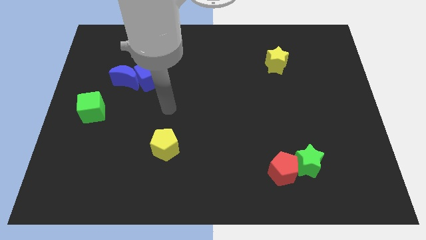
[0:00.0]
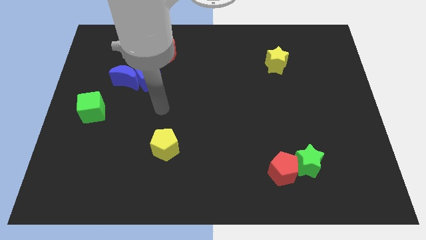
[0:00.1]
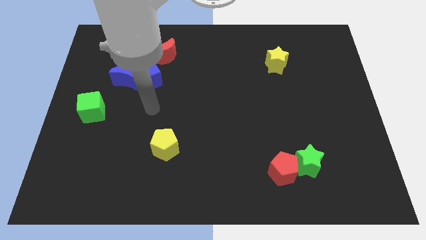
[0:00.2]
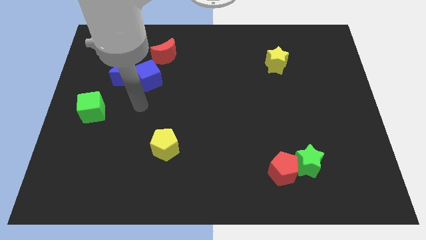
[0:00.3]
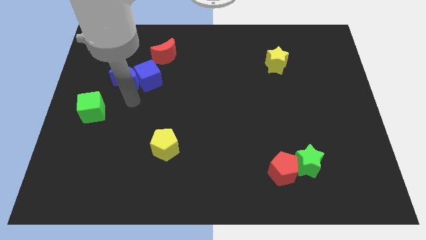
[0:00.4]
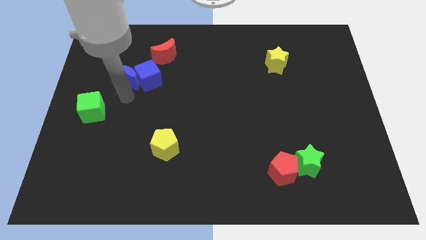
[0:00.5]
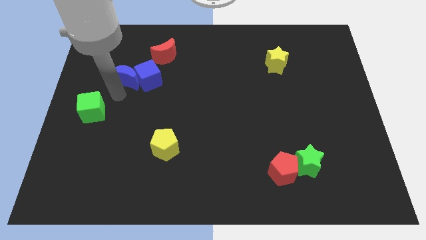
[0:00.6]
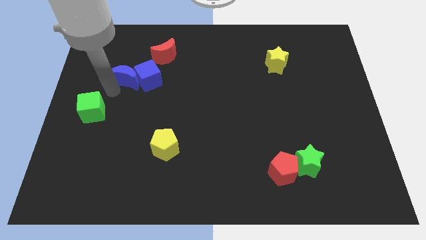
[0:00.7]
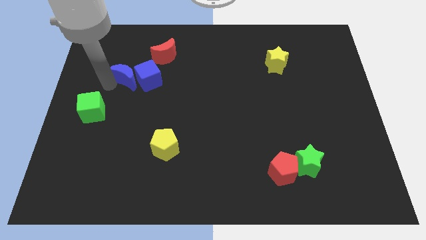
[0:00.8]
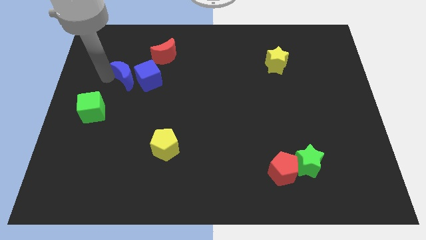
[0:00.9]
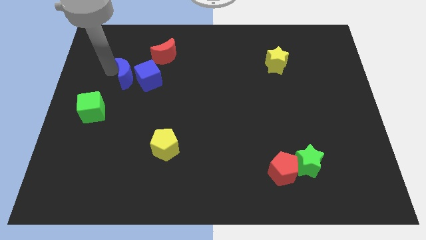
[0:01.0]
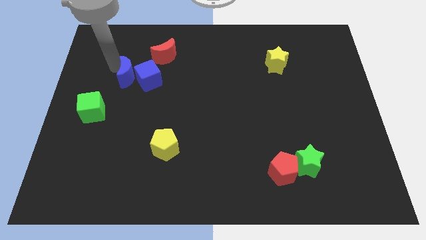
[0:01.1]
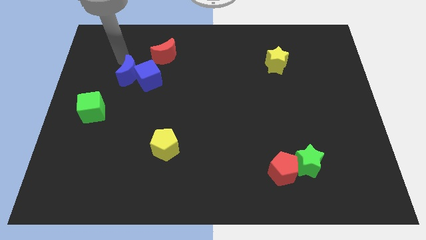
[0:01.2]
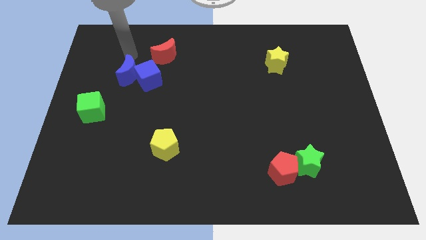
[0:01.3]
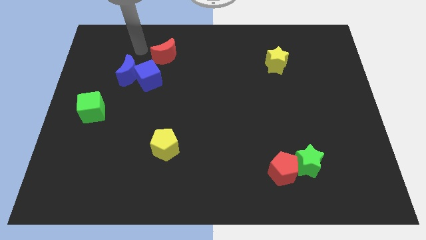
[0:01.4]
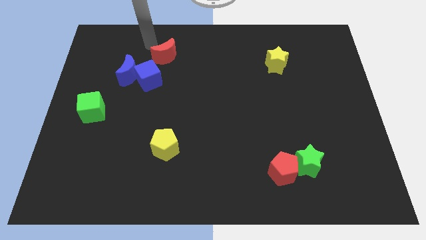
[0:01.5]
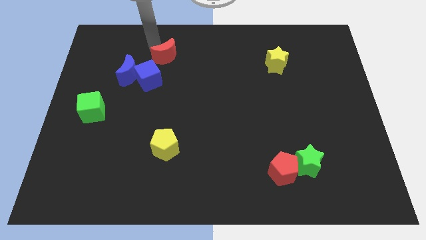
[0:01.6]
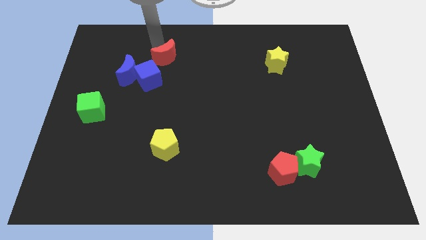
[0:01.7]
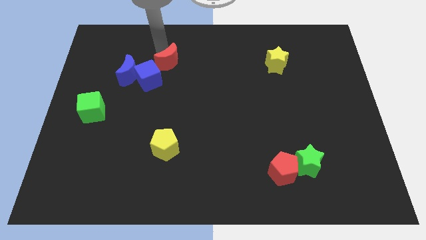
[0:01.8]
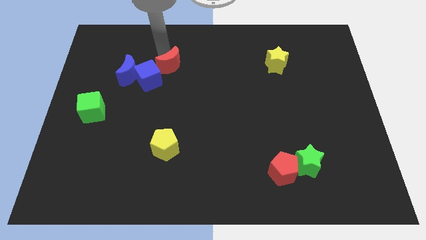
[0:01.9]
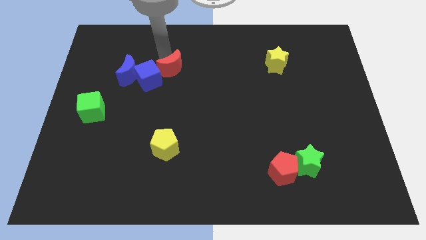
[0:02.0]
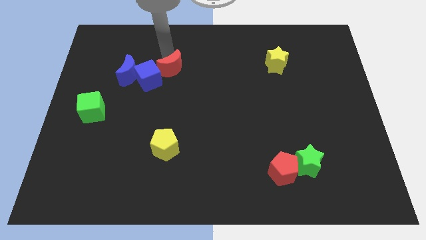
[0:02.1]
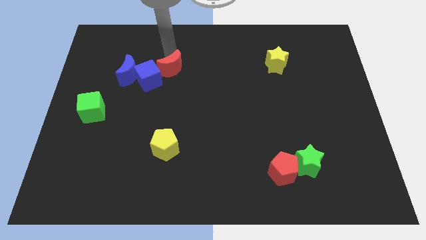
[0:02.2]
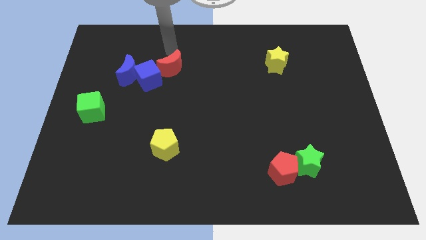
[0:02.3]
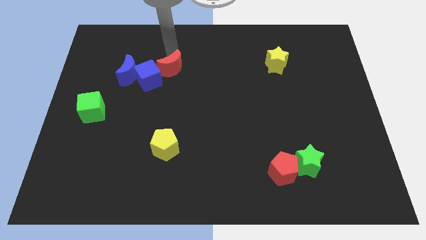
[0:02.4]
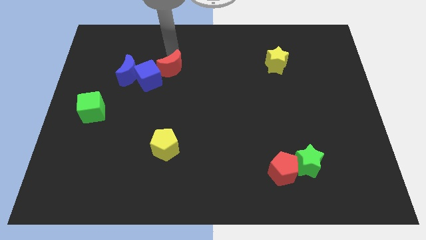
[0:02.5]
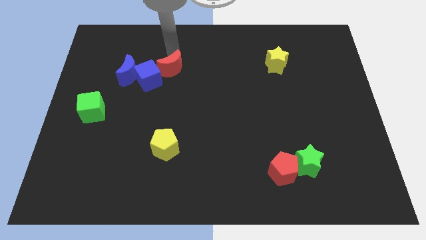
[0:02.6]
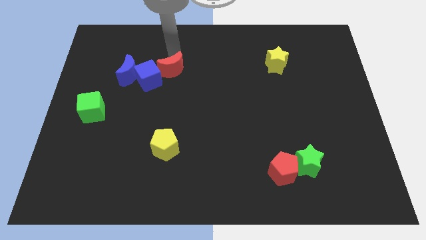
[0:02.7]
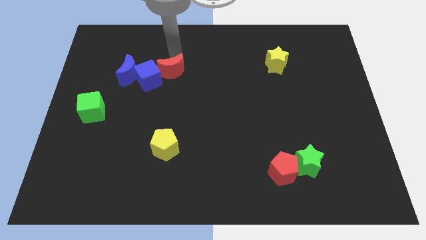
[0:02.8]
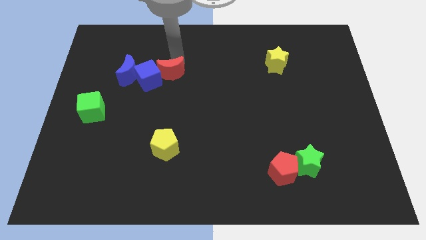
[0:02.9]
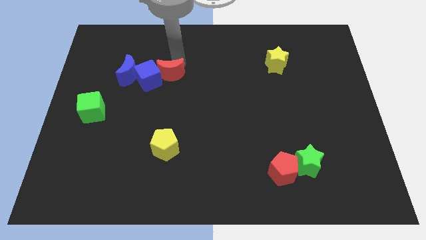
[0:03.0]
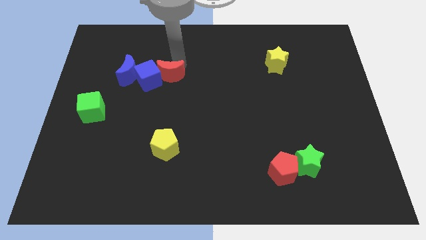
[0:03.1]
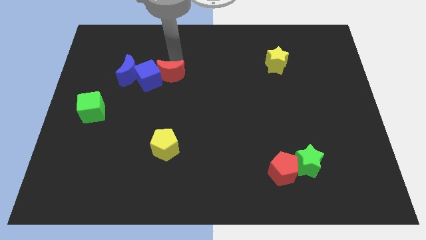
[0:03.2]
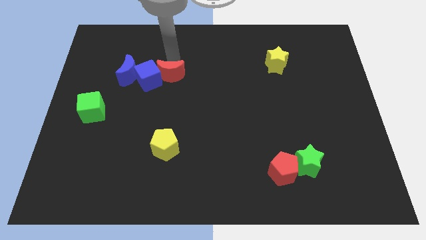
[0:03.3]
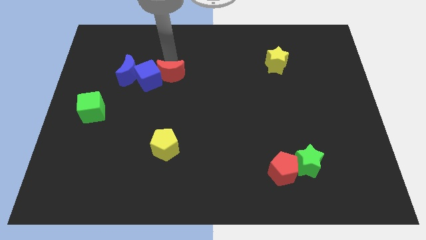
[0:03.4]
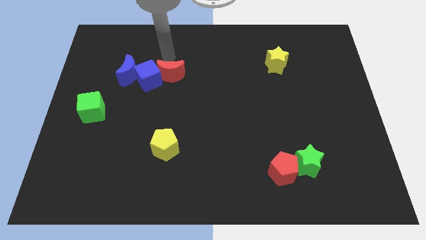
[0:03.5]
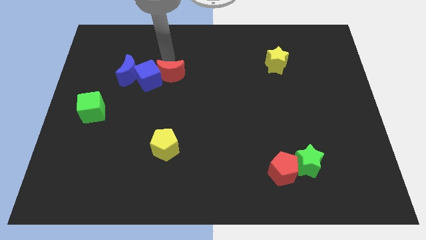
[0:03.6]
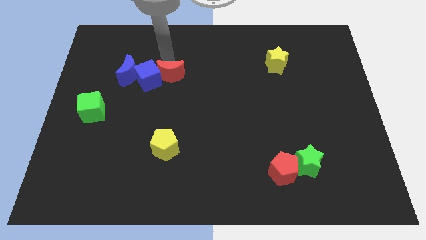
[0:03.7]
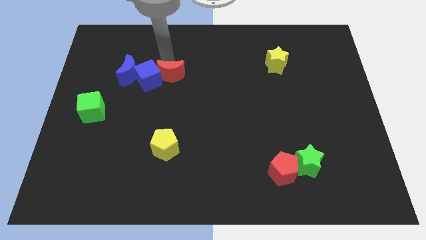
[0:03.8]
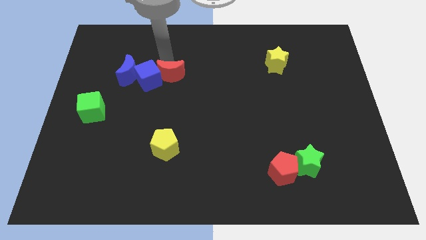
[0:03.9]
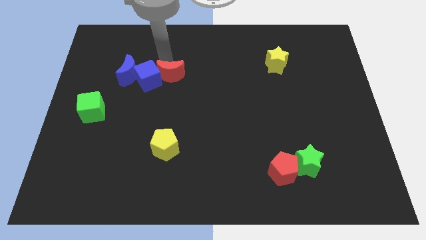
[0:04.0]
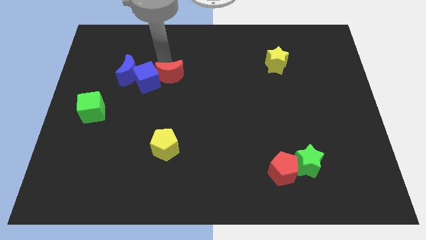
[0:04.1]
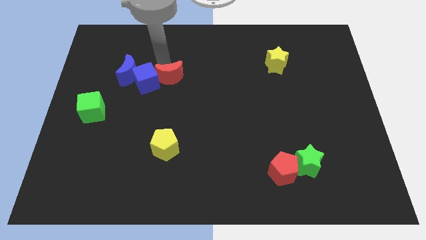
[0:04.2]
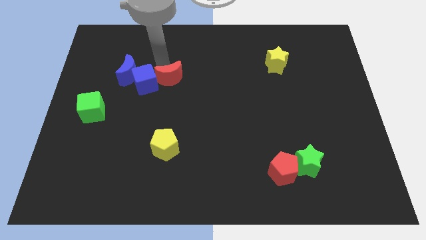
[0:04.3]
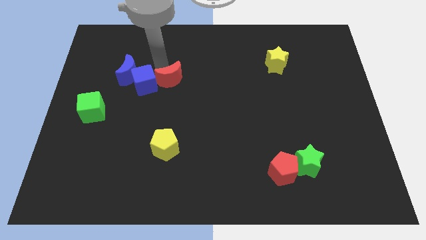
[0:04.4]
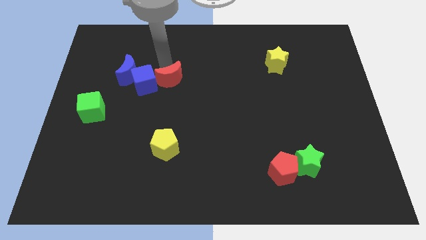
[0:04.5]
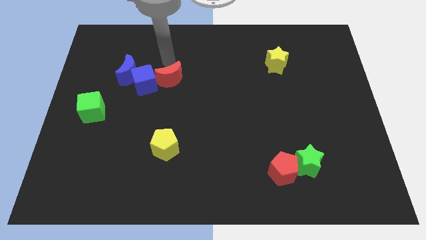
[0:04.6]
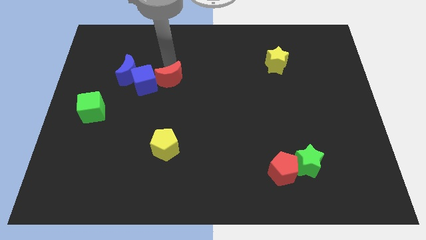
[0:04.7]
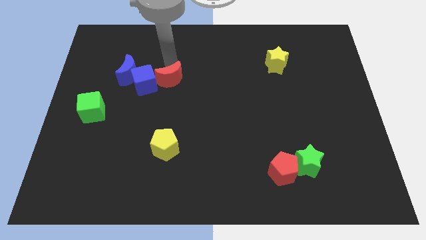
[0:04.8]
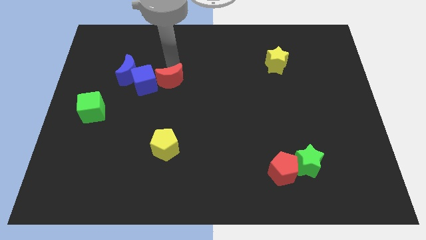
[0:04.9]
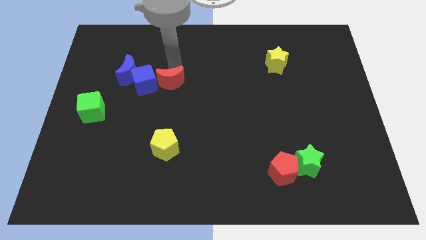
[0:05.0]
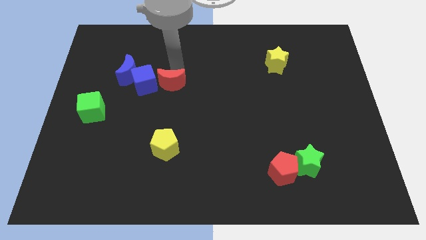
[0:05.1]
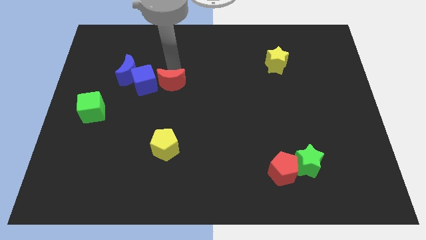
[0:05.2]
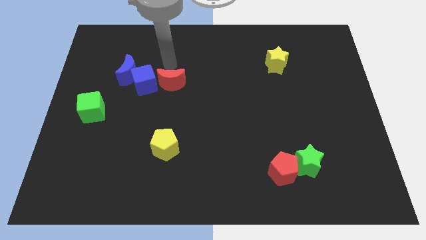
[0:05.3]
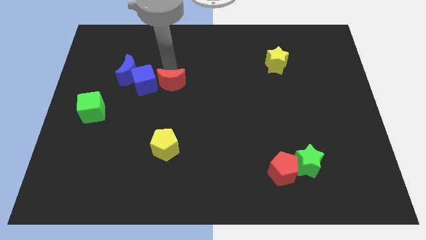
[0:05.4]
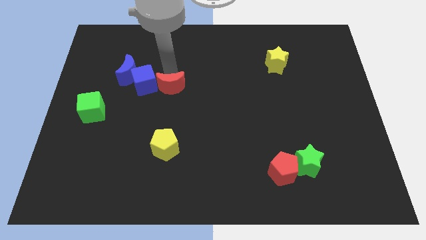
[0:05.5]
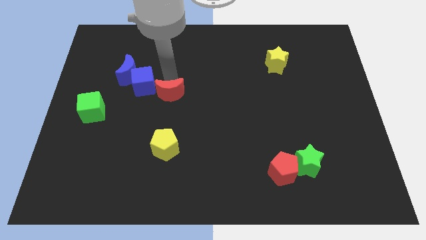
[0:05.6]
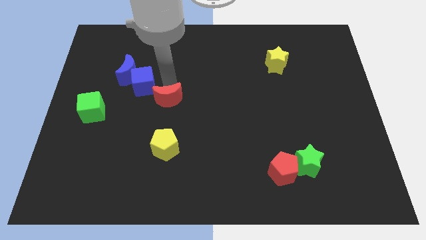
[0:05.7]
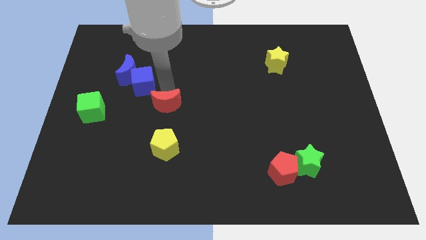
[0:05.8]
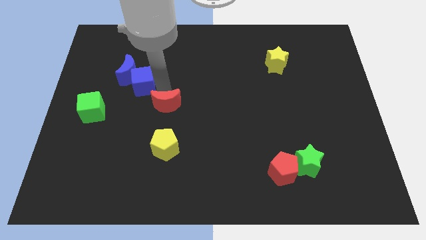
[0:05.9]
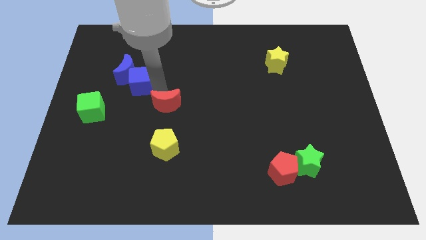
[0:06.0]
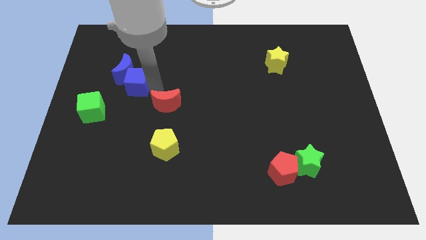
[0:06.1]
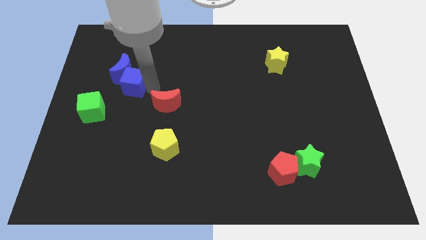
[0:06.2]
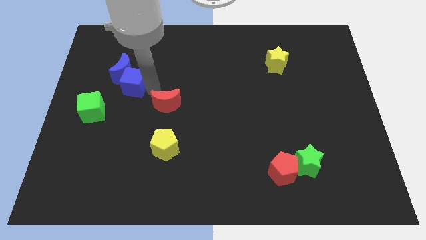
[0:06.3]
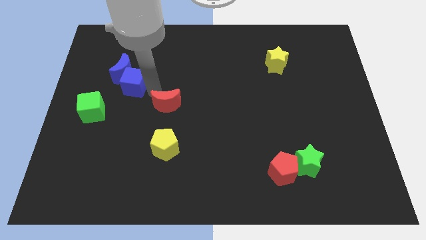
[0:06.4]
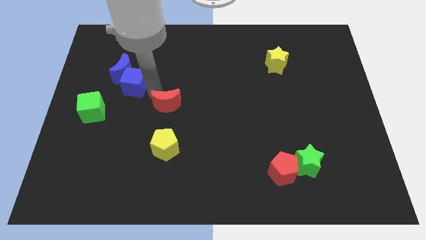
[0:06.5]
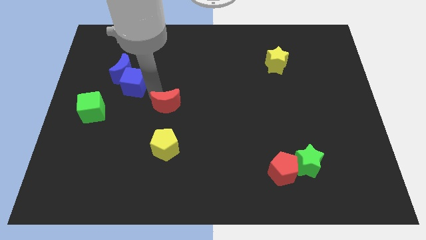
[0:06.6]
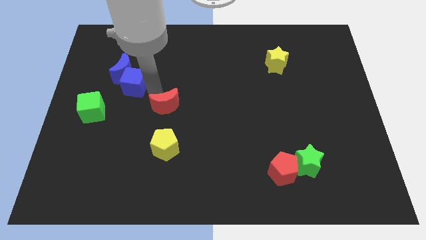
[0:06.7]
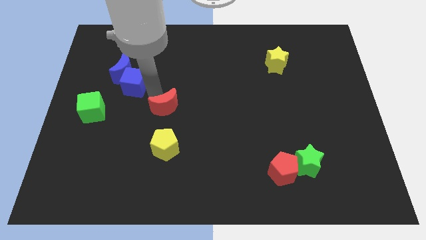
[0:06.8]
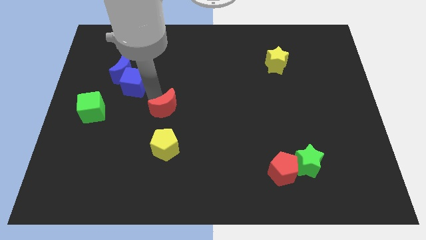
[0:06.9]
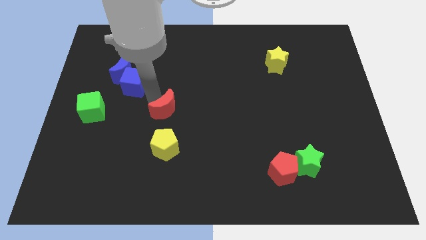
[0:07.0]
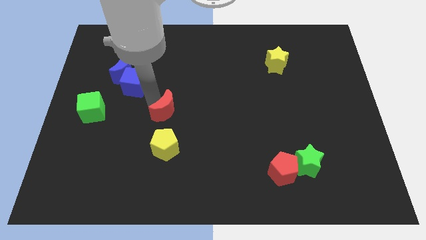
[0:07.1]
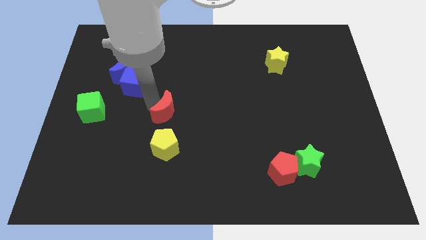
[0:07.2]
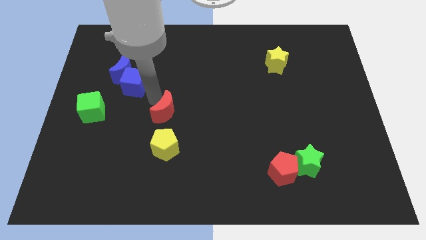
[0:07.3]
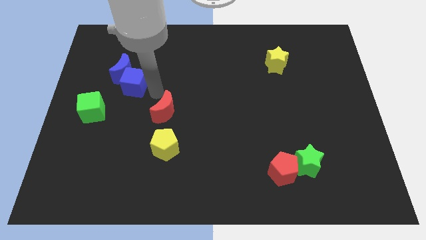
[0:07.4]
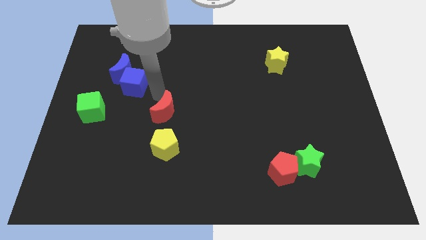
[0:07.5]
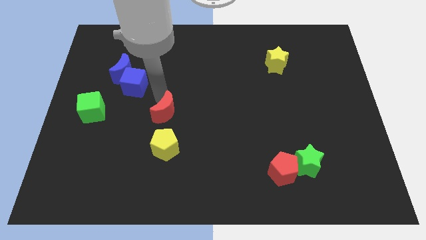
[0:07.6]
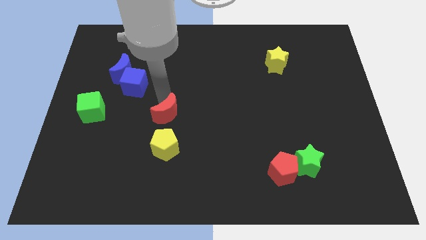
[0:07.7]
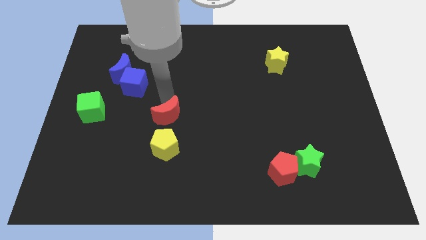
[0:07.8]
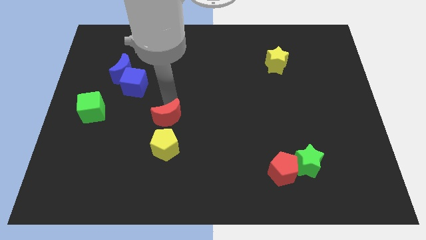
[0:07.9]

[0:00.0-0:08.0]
slide the red moon downwards
